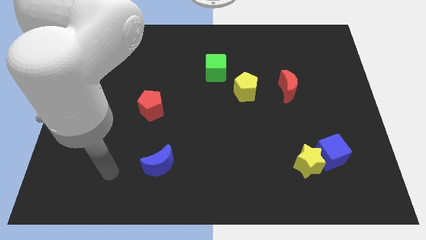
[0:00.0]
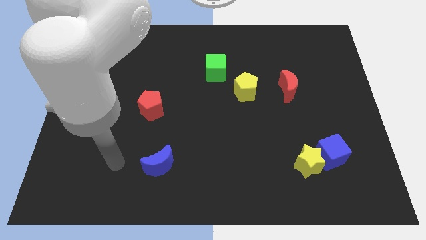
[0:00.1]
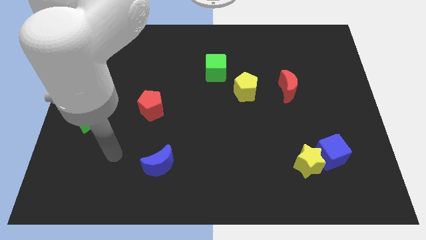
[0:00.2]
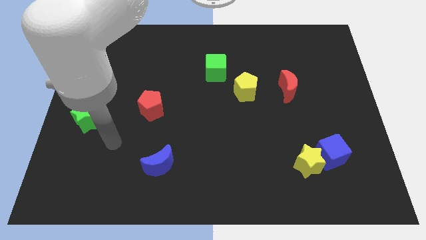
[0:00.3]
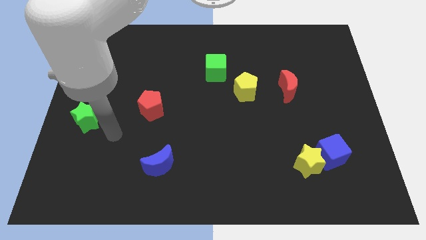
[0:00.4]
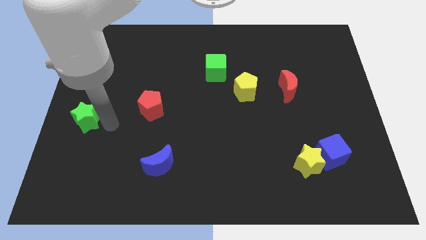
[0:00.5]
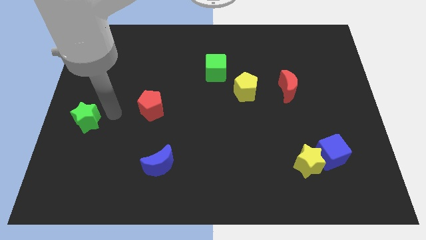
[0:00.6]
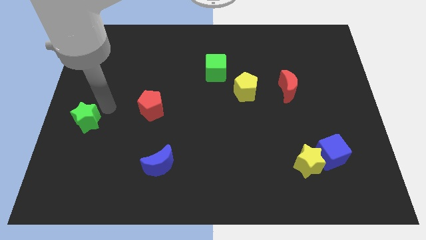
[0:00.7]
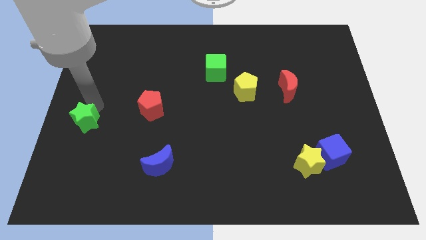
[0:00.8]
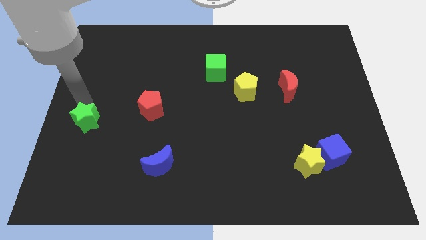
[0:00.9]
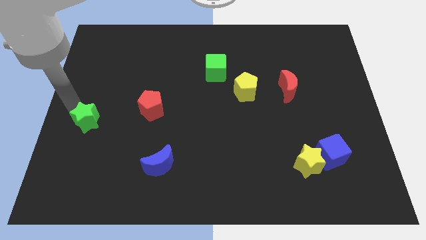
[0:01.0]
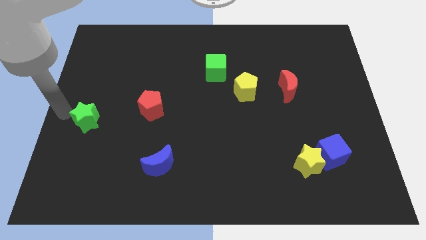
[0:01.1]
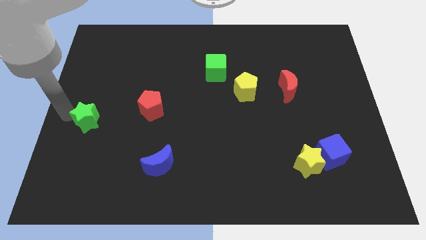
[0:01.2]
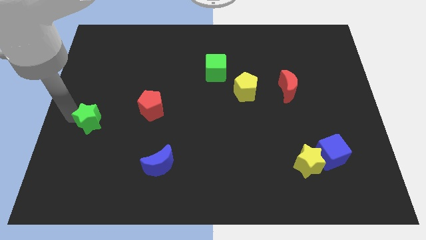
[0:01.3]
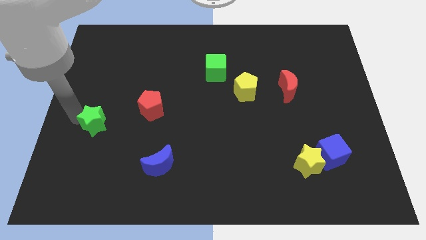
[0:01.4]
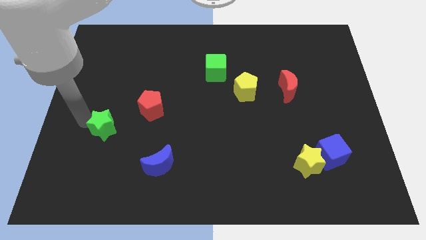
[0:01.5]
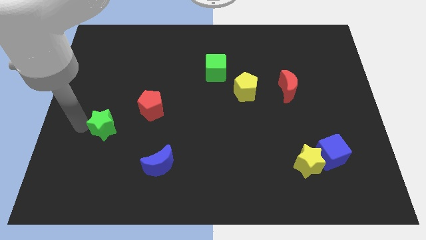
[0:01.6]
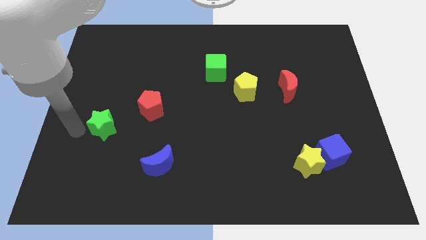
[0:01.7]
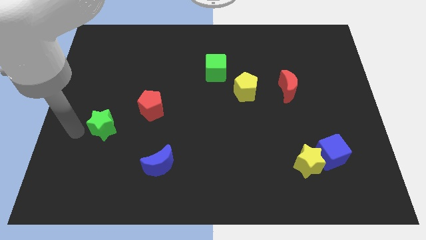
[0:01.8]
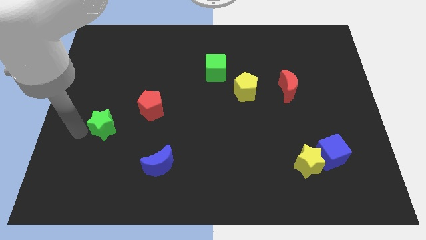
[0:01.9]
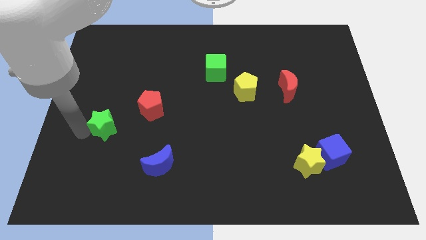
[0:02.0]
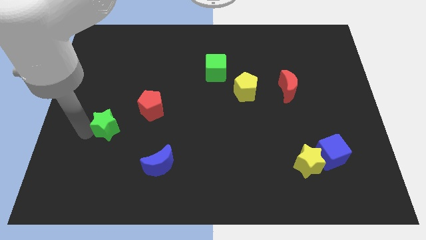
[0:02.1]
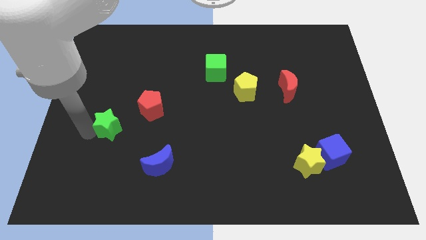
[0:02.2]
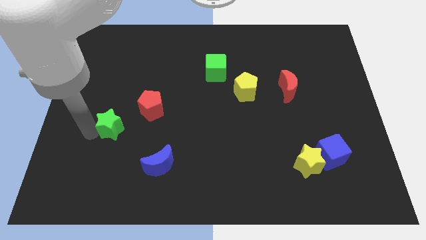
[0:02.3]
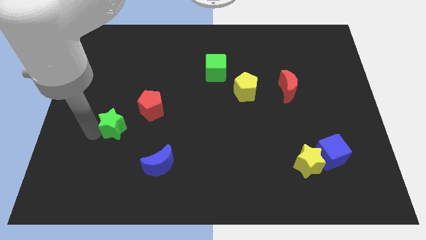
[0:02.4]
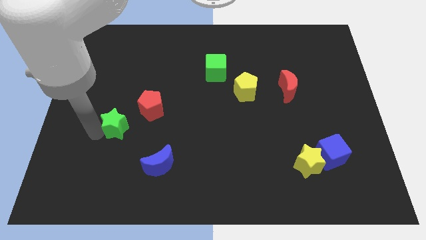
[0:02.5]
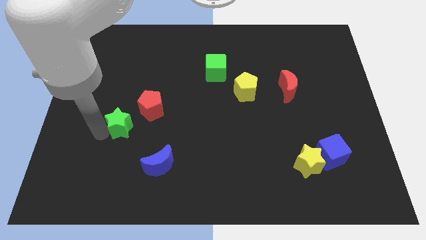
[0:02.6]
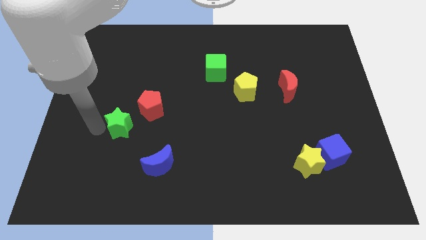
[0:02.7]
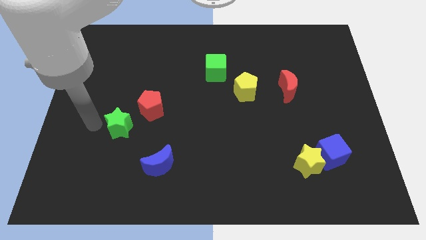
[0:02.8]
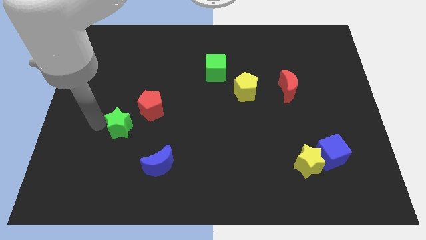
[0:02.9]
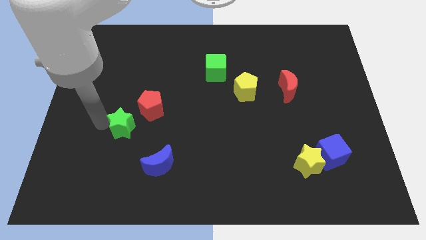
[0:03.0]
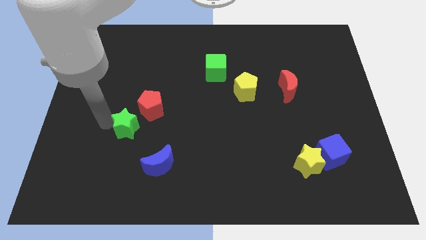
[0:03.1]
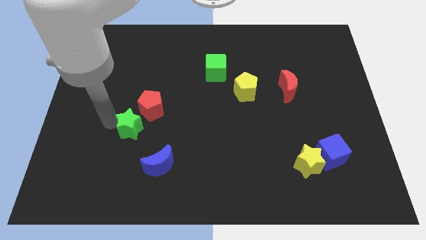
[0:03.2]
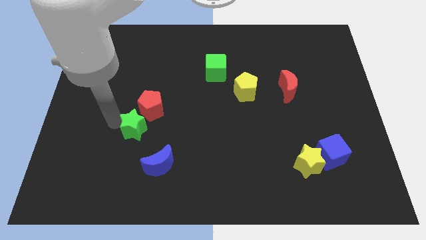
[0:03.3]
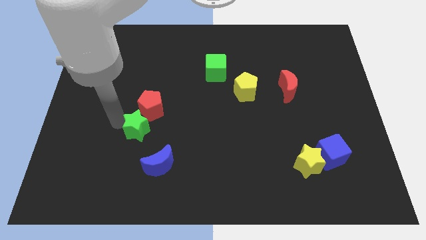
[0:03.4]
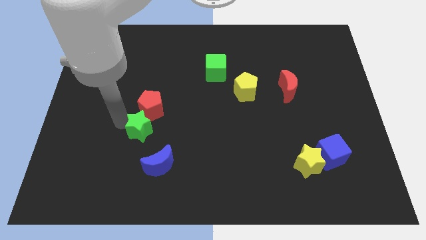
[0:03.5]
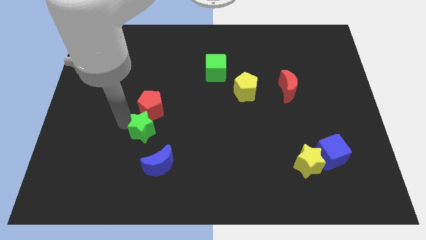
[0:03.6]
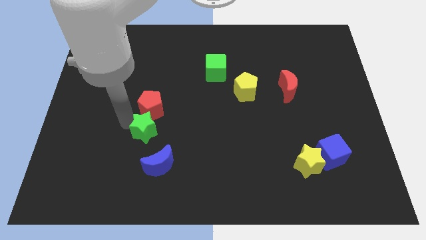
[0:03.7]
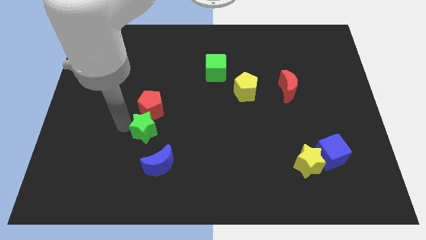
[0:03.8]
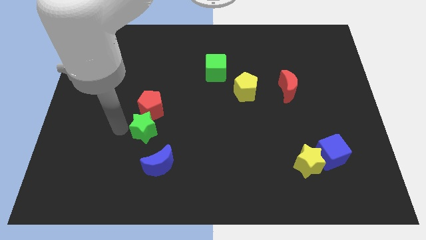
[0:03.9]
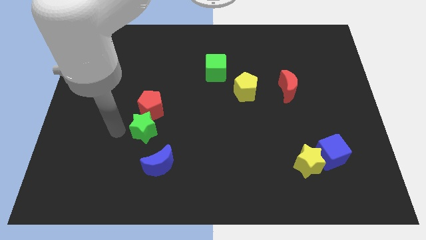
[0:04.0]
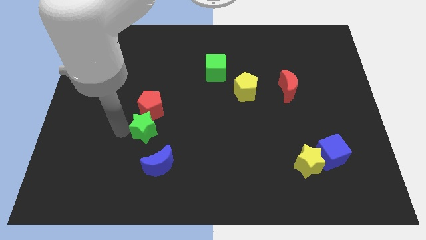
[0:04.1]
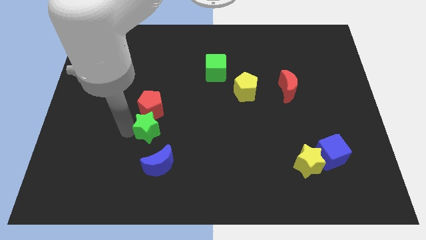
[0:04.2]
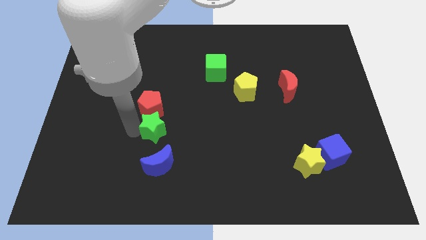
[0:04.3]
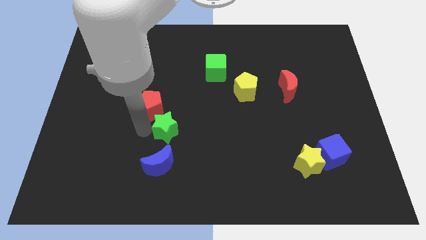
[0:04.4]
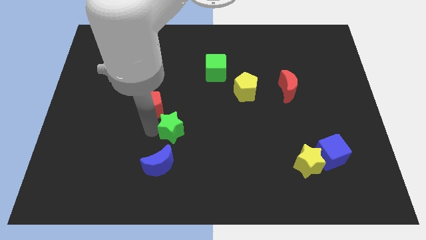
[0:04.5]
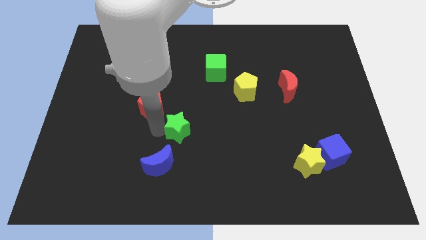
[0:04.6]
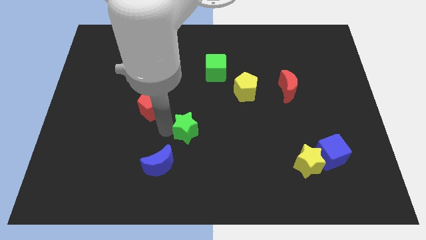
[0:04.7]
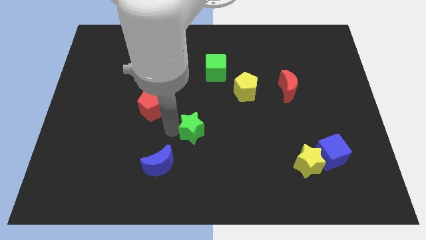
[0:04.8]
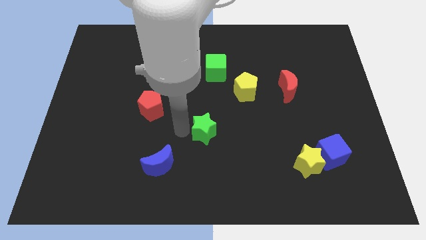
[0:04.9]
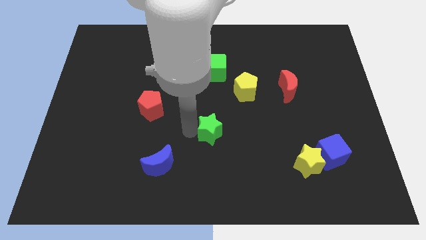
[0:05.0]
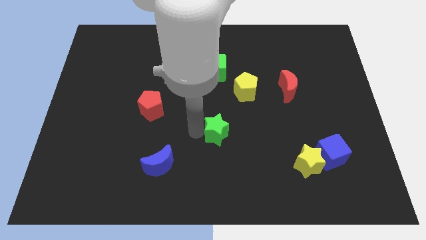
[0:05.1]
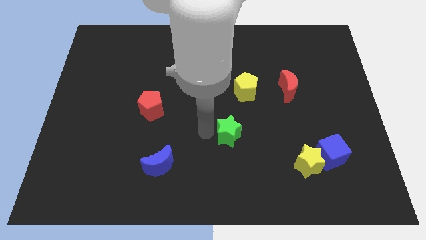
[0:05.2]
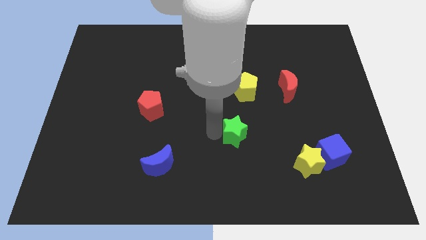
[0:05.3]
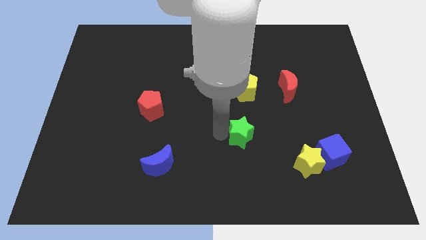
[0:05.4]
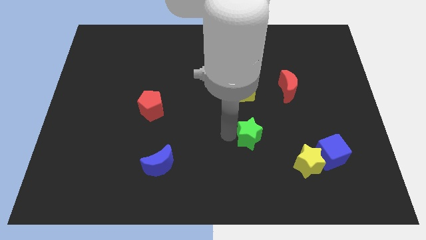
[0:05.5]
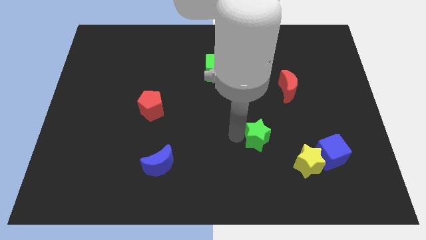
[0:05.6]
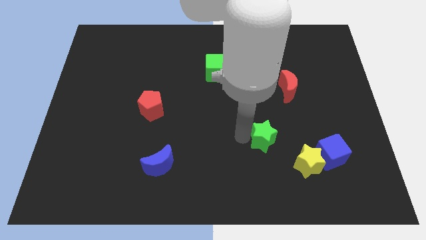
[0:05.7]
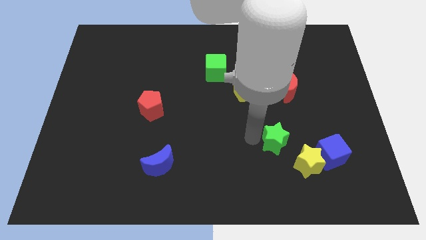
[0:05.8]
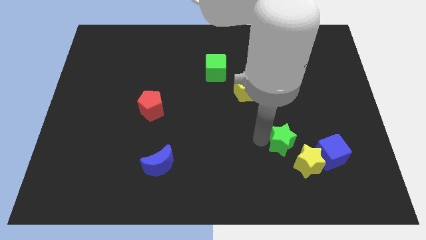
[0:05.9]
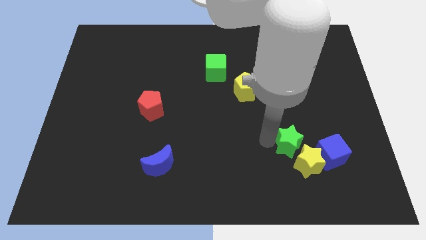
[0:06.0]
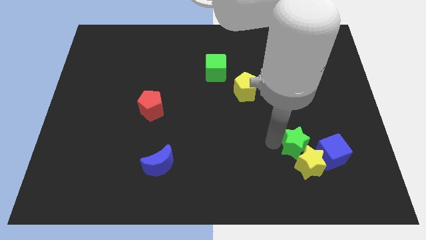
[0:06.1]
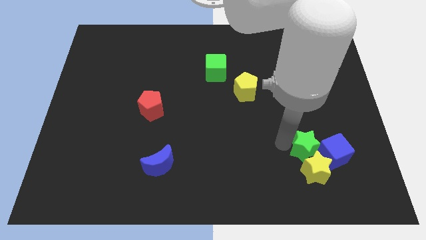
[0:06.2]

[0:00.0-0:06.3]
push the green star towards the blue cube

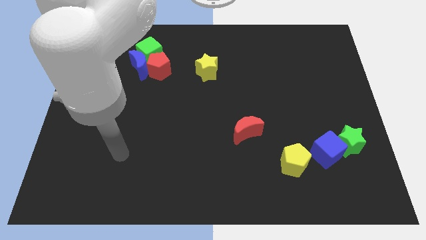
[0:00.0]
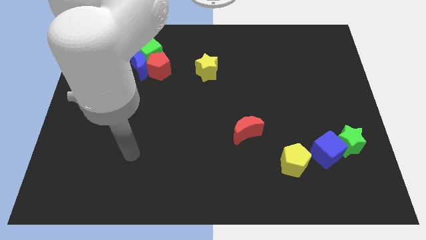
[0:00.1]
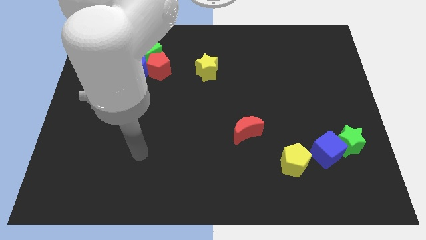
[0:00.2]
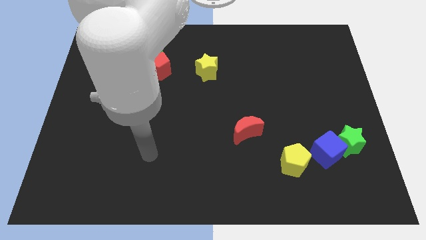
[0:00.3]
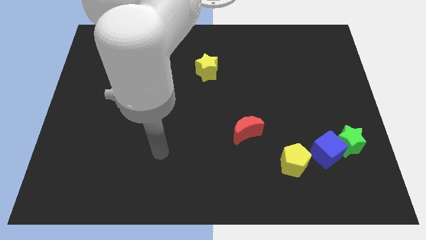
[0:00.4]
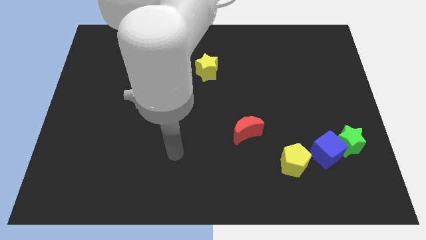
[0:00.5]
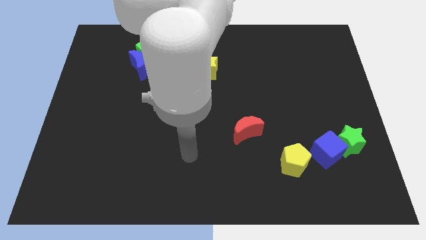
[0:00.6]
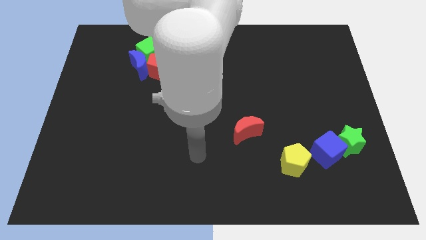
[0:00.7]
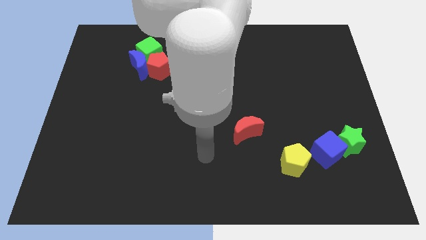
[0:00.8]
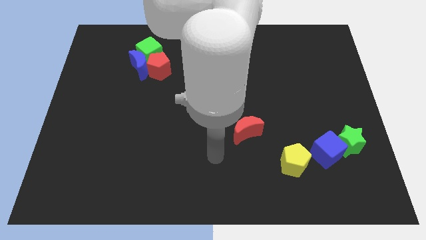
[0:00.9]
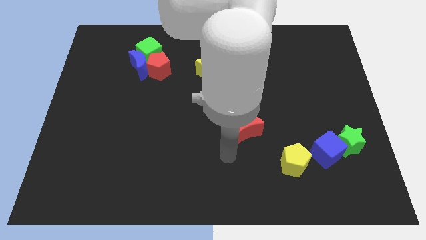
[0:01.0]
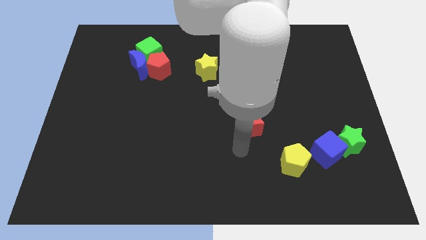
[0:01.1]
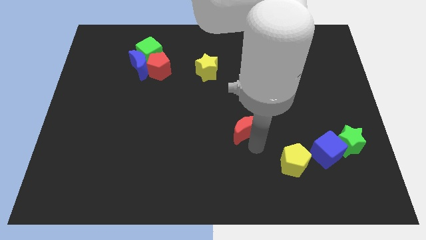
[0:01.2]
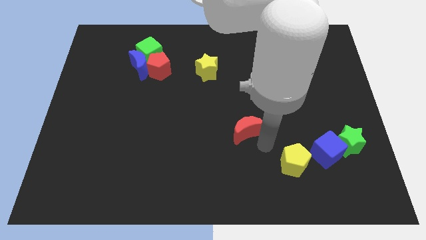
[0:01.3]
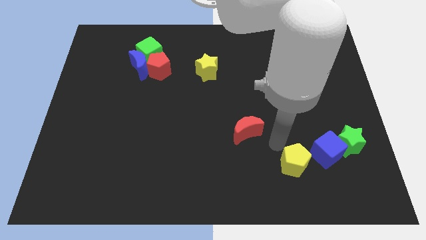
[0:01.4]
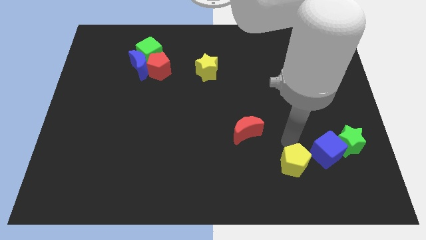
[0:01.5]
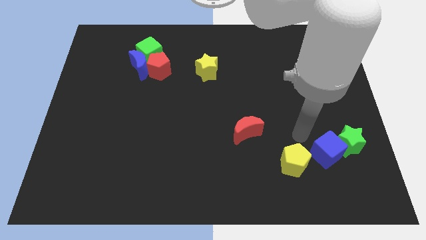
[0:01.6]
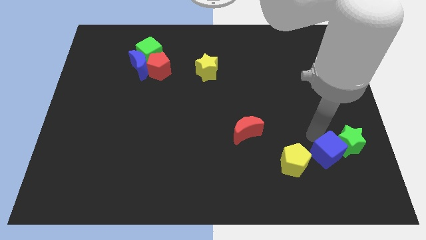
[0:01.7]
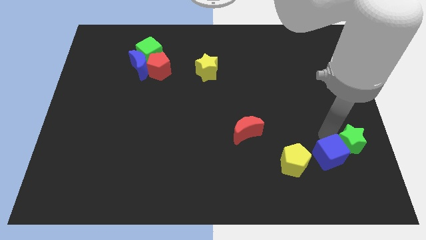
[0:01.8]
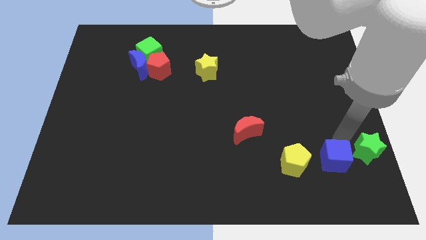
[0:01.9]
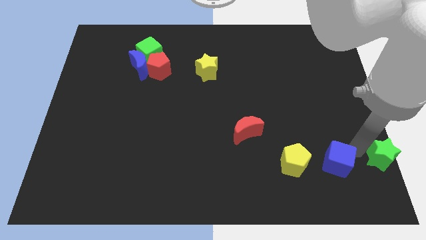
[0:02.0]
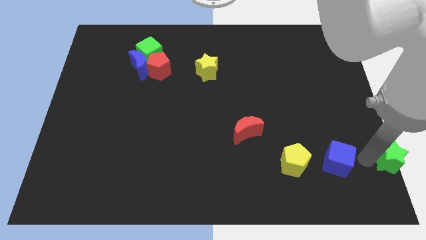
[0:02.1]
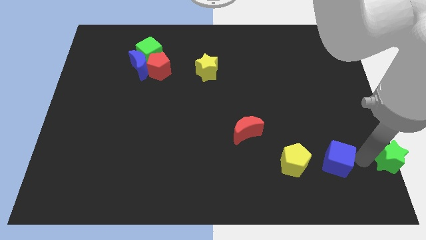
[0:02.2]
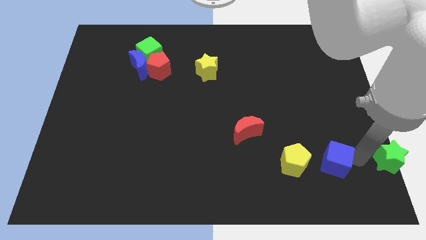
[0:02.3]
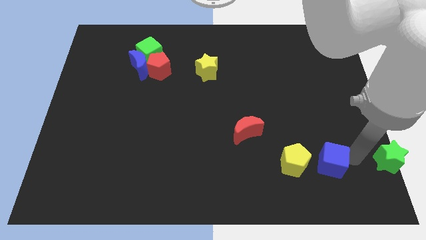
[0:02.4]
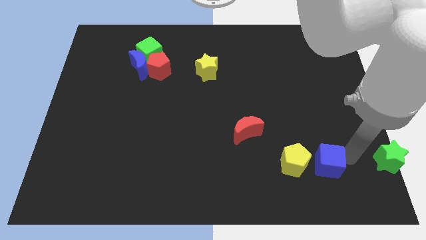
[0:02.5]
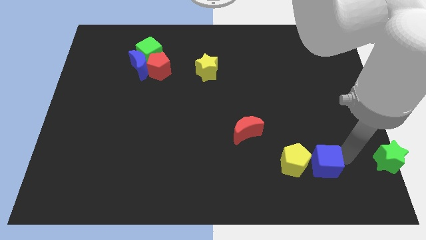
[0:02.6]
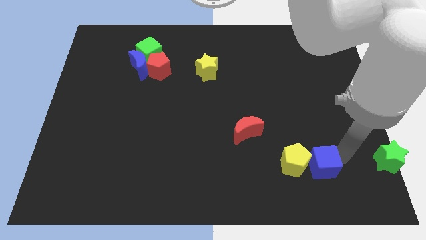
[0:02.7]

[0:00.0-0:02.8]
slide the blue cube close to the yellow pentagon
